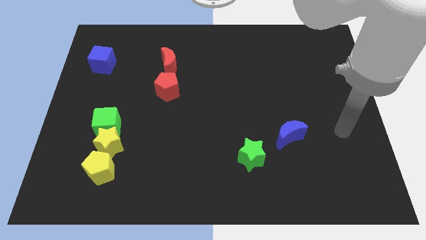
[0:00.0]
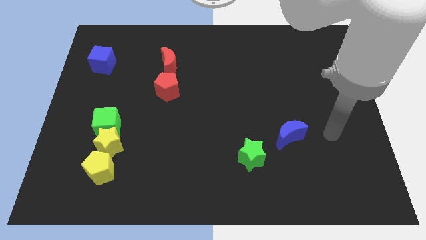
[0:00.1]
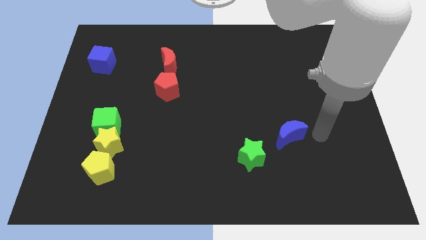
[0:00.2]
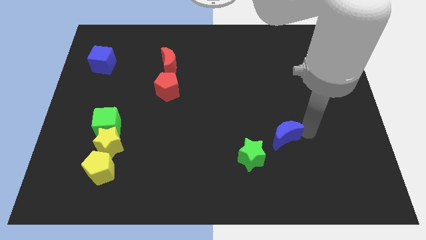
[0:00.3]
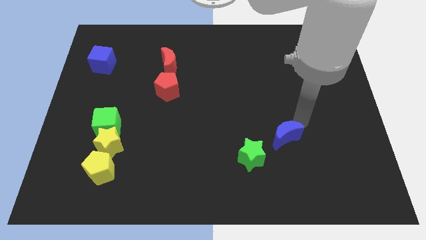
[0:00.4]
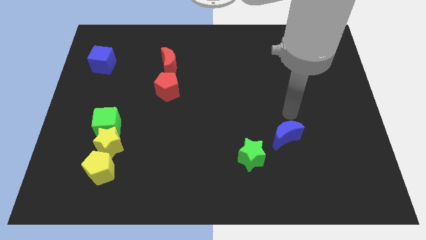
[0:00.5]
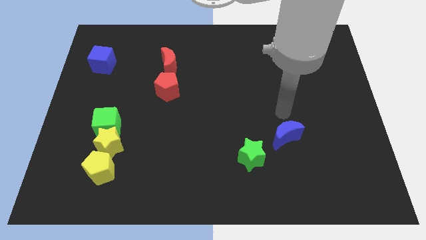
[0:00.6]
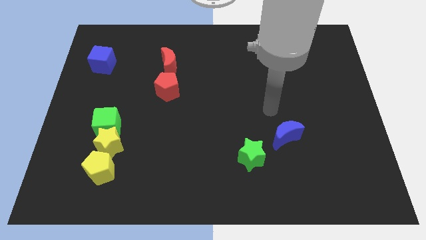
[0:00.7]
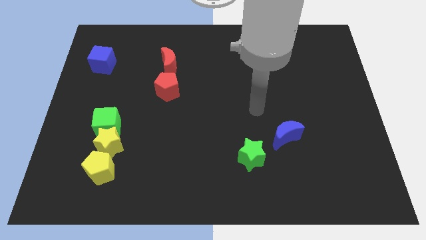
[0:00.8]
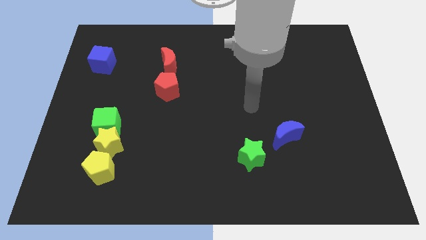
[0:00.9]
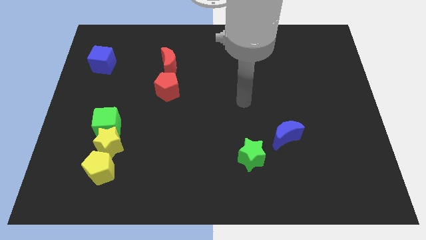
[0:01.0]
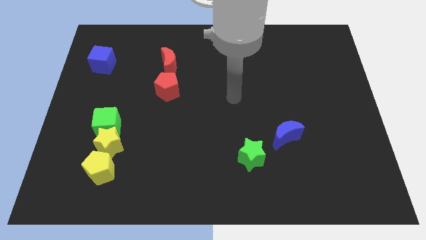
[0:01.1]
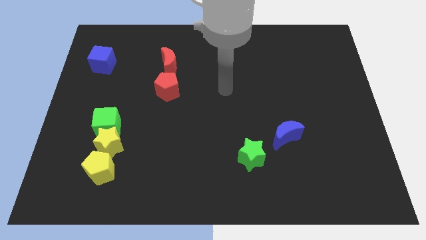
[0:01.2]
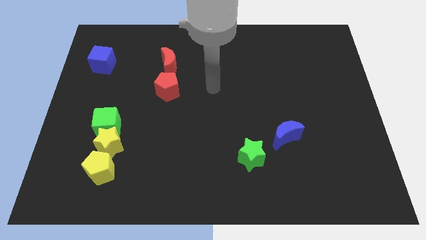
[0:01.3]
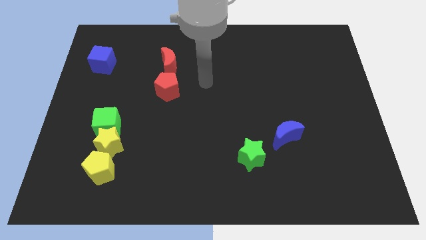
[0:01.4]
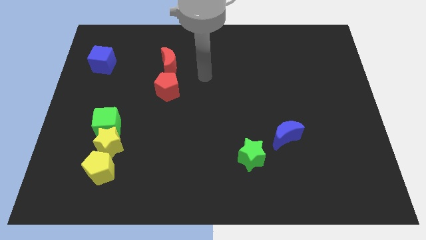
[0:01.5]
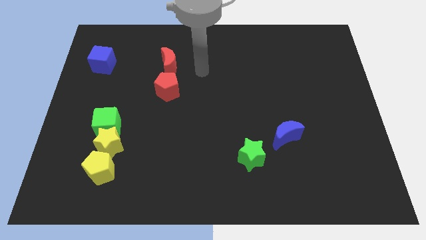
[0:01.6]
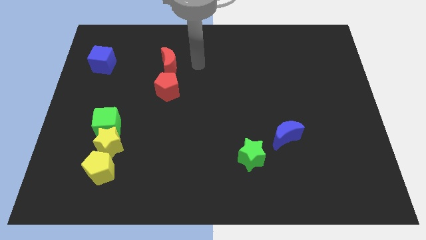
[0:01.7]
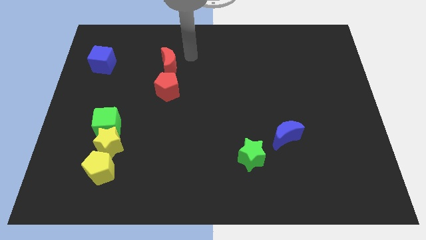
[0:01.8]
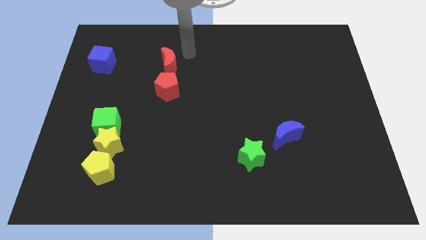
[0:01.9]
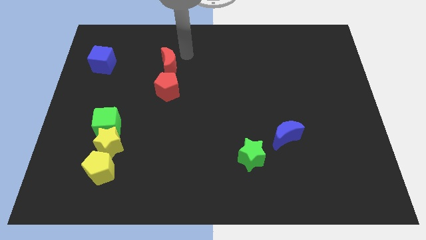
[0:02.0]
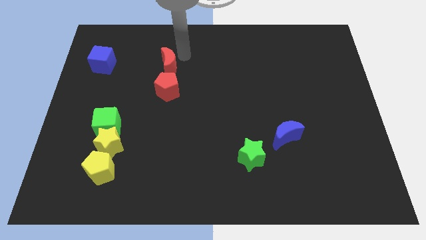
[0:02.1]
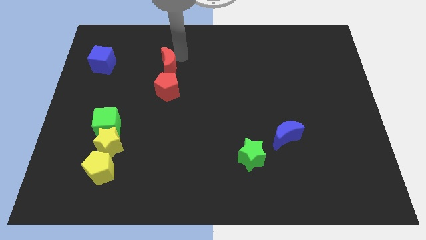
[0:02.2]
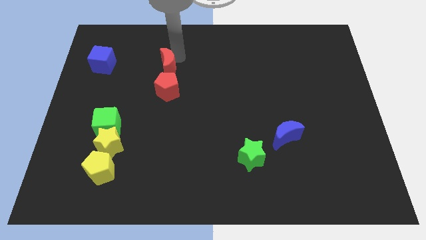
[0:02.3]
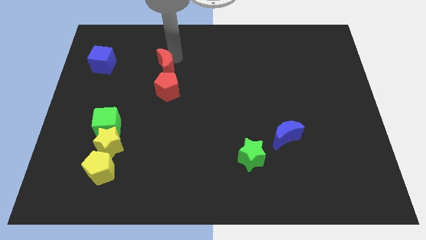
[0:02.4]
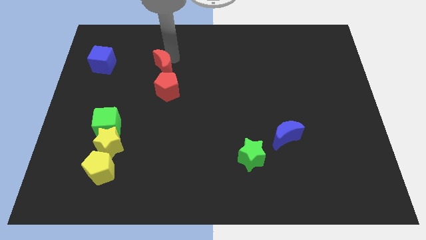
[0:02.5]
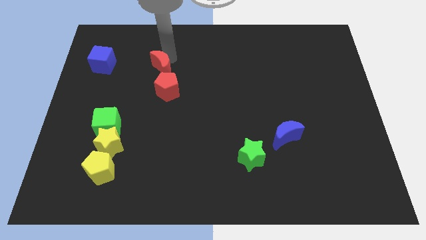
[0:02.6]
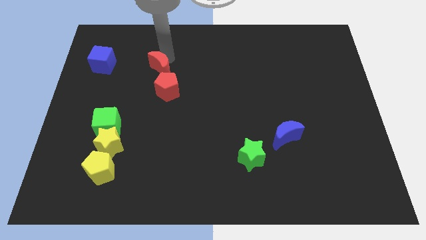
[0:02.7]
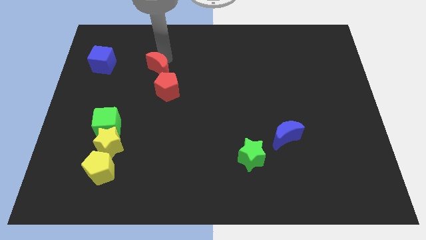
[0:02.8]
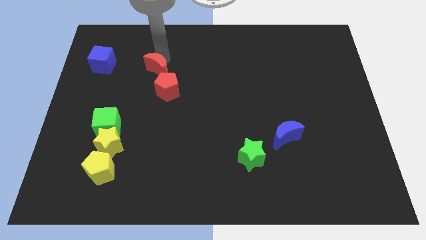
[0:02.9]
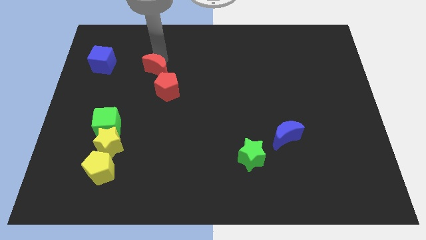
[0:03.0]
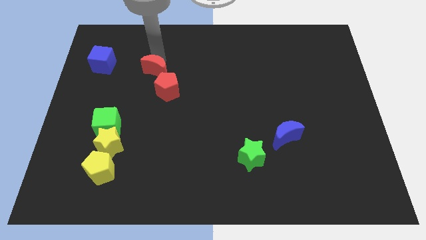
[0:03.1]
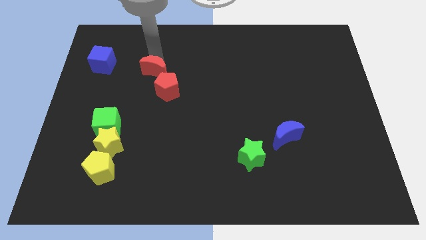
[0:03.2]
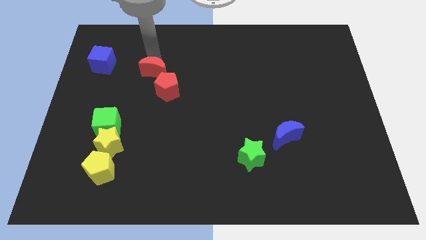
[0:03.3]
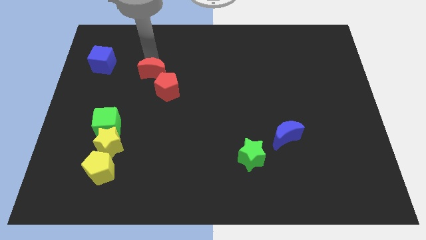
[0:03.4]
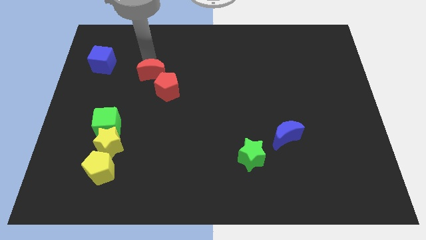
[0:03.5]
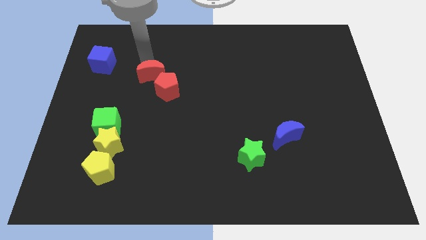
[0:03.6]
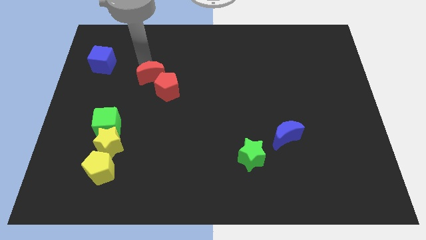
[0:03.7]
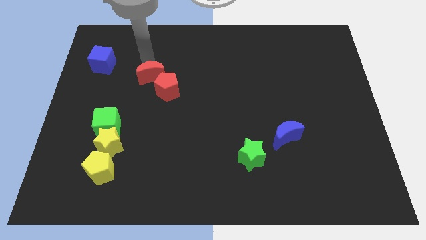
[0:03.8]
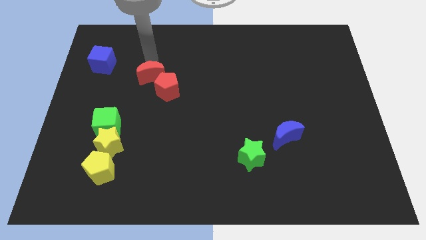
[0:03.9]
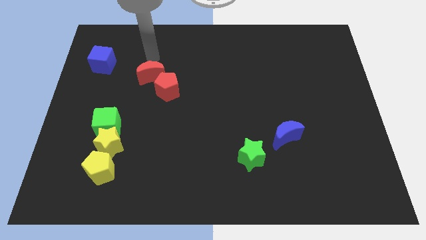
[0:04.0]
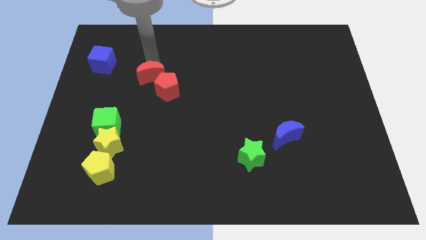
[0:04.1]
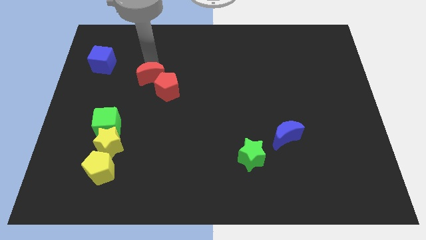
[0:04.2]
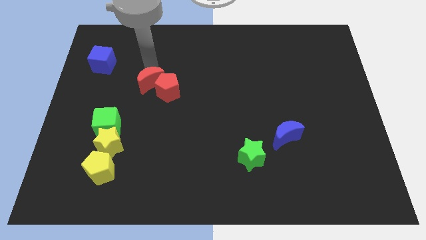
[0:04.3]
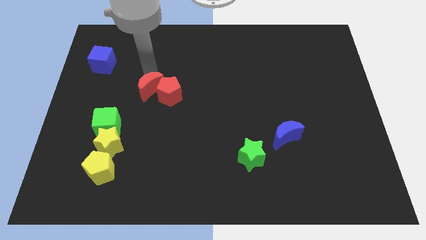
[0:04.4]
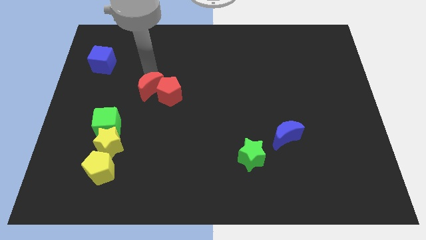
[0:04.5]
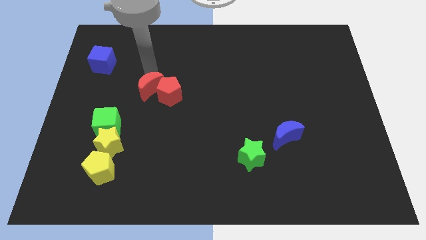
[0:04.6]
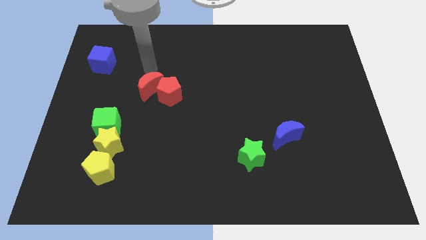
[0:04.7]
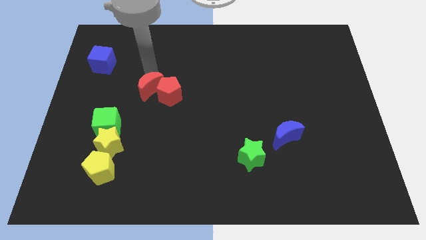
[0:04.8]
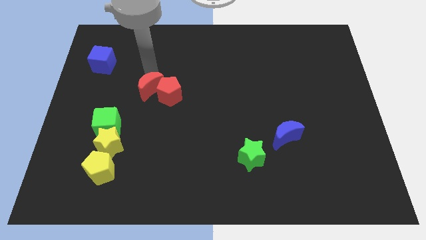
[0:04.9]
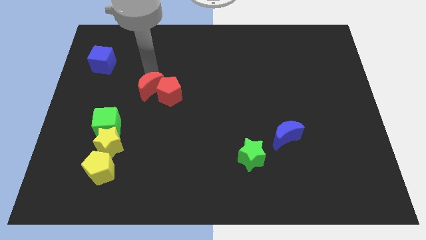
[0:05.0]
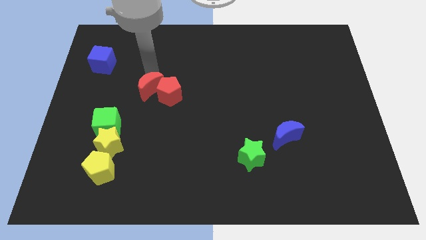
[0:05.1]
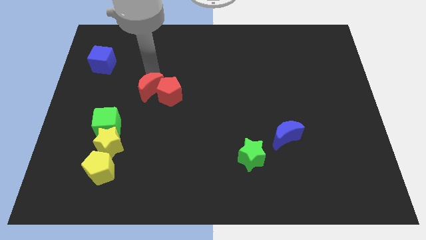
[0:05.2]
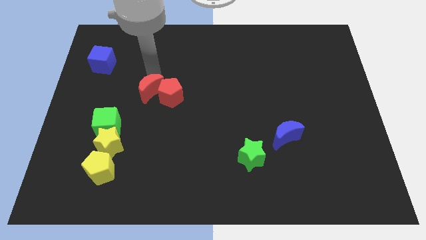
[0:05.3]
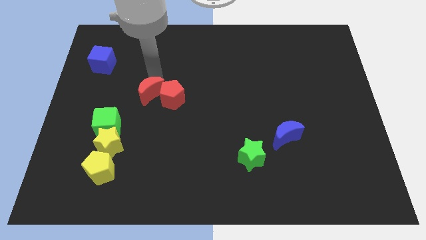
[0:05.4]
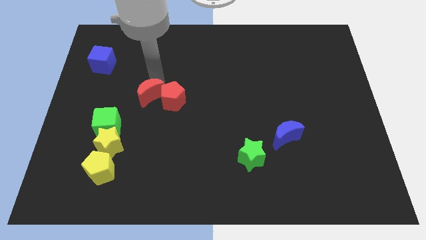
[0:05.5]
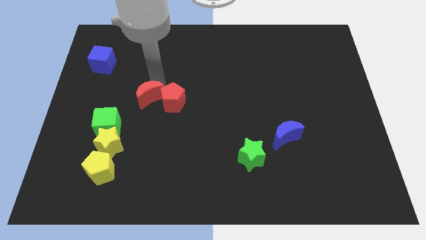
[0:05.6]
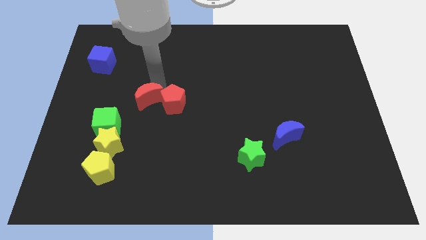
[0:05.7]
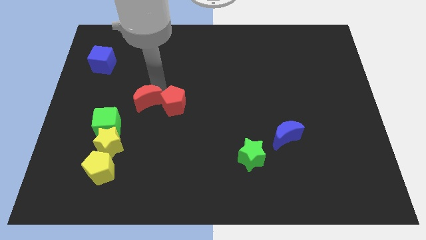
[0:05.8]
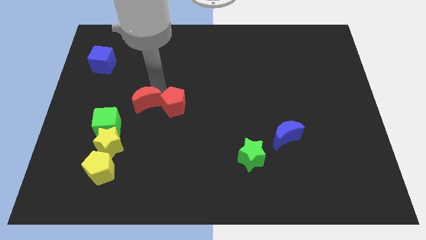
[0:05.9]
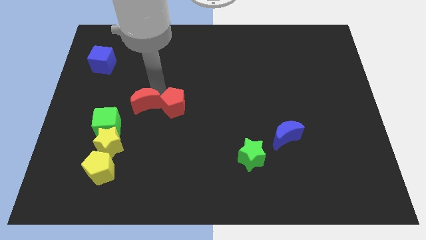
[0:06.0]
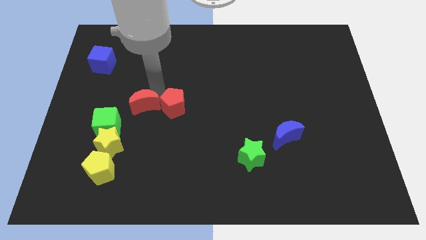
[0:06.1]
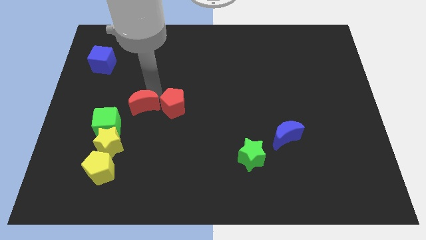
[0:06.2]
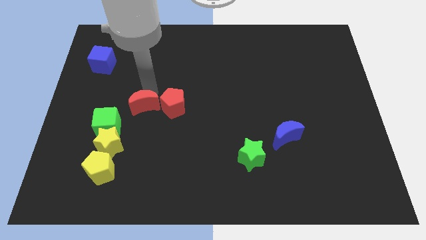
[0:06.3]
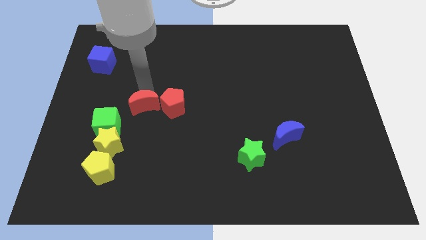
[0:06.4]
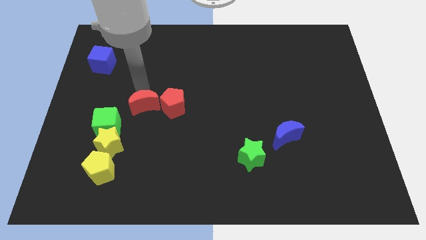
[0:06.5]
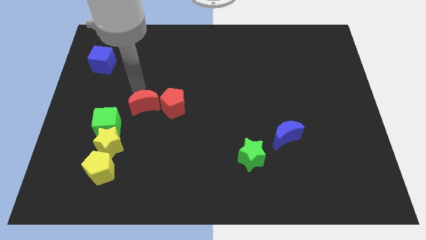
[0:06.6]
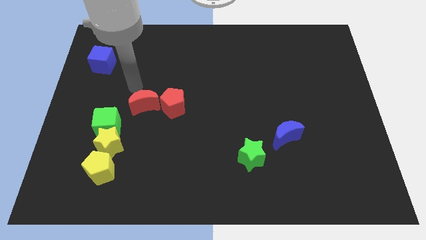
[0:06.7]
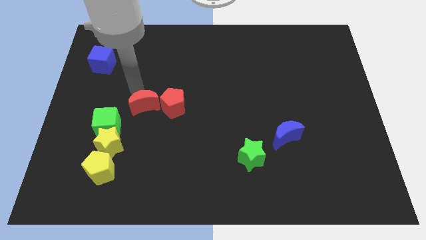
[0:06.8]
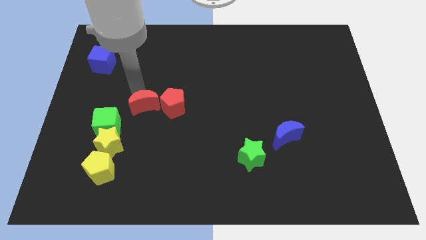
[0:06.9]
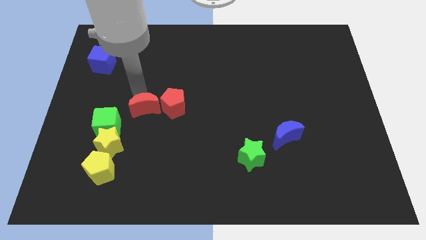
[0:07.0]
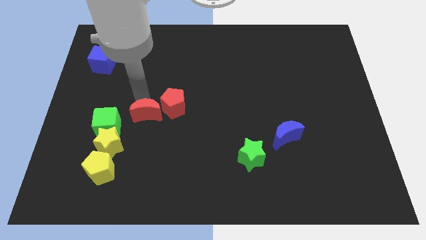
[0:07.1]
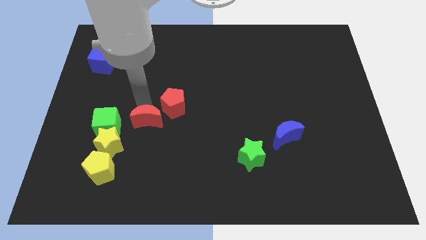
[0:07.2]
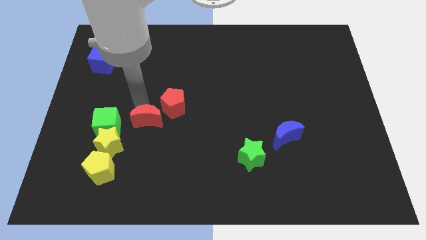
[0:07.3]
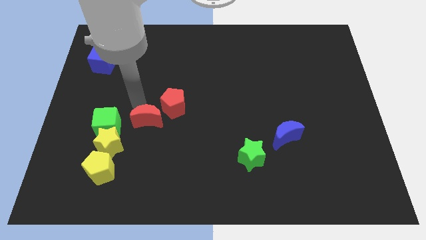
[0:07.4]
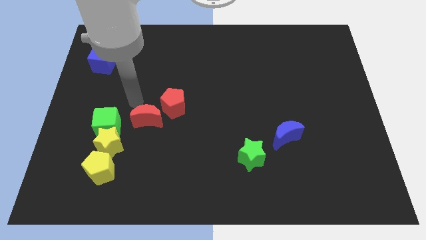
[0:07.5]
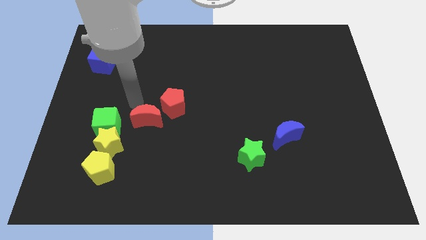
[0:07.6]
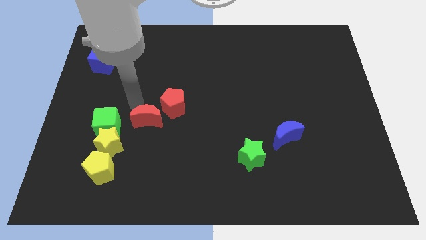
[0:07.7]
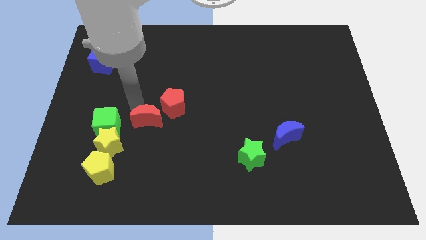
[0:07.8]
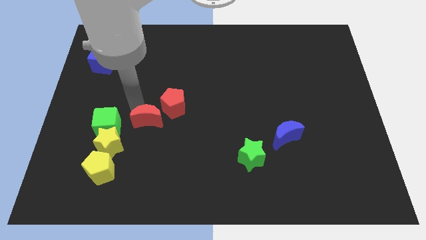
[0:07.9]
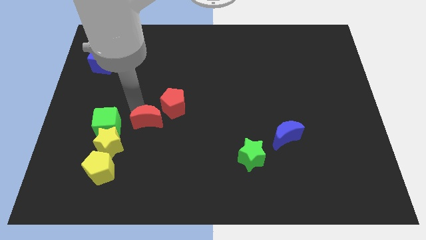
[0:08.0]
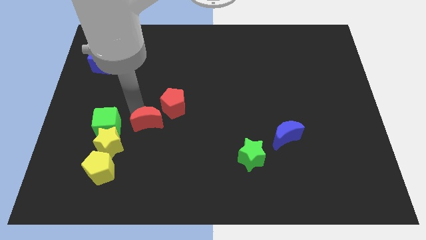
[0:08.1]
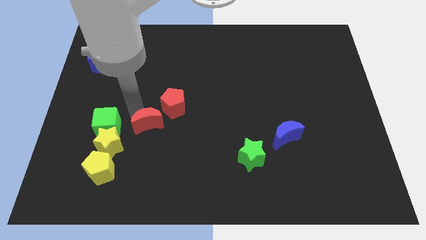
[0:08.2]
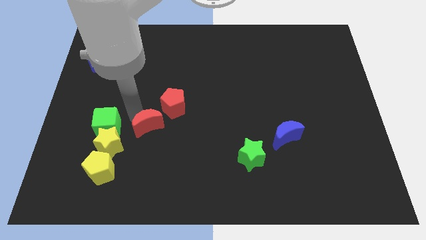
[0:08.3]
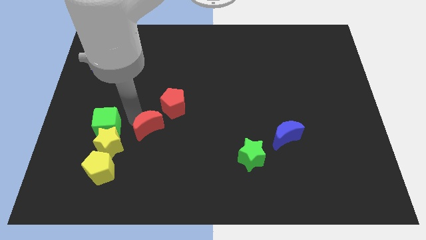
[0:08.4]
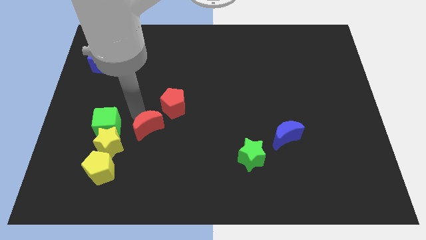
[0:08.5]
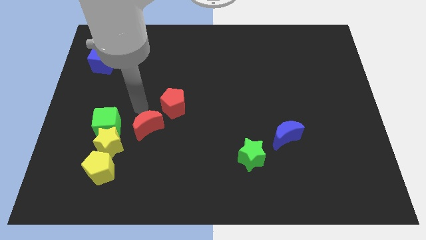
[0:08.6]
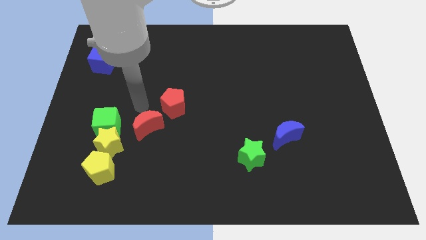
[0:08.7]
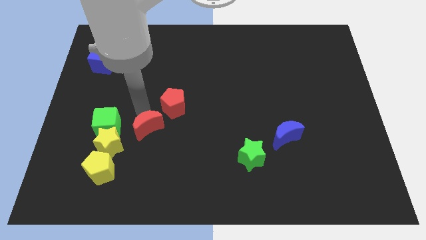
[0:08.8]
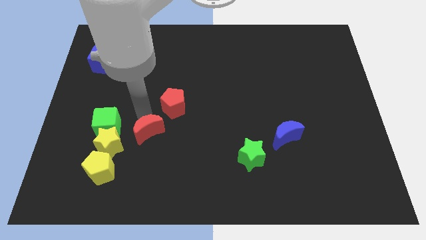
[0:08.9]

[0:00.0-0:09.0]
slide the red moon down
